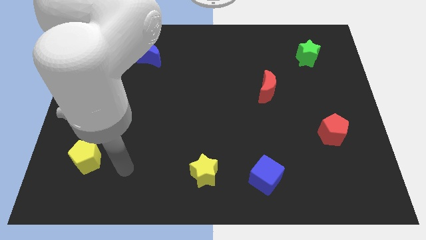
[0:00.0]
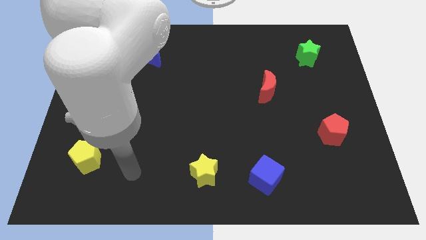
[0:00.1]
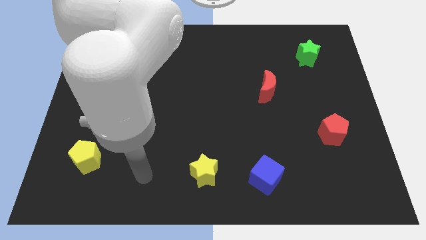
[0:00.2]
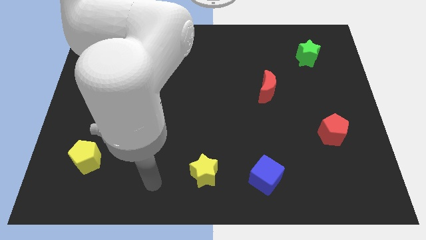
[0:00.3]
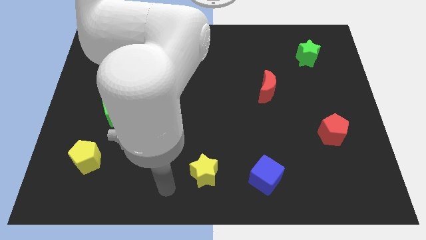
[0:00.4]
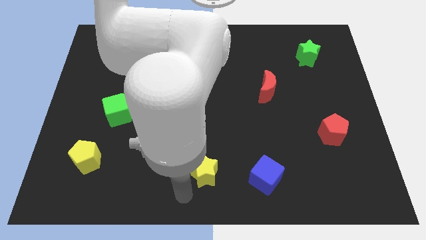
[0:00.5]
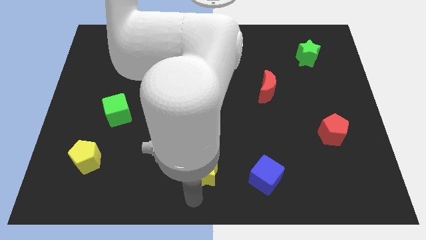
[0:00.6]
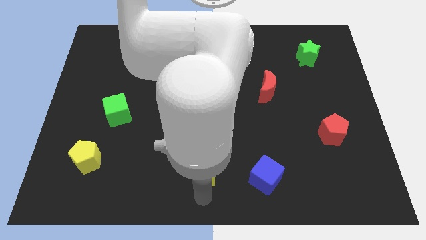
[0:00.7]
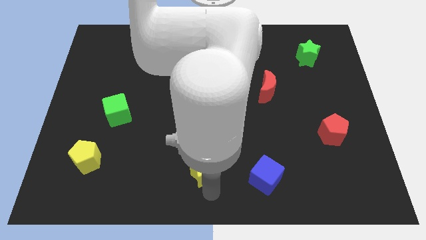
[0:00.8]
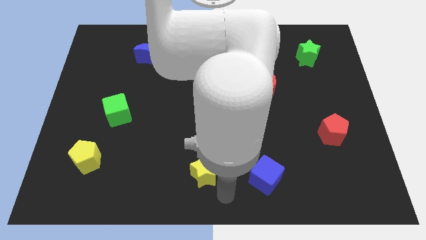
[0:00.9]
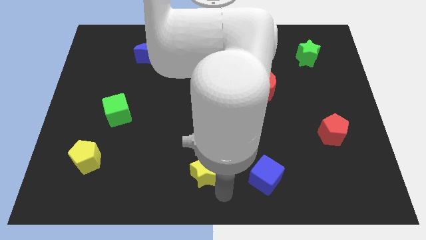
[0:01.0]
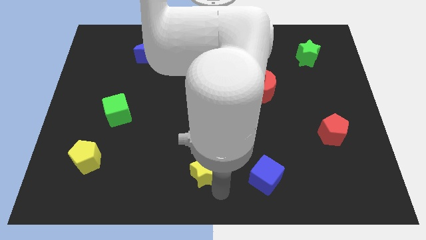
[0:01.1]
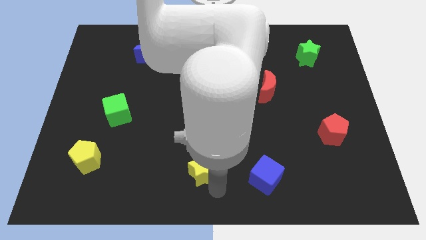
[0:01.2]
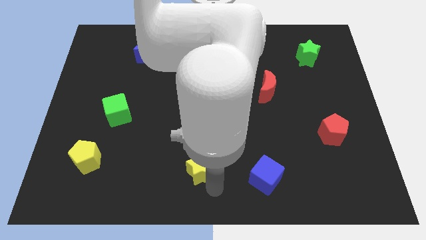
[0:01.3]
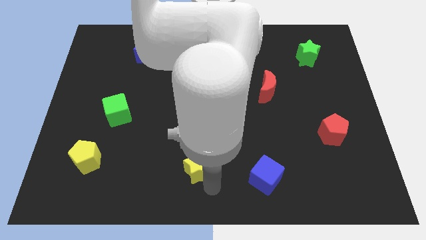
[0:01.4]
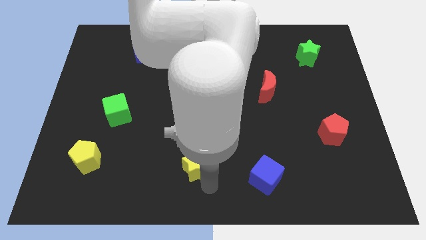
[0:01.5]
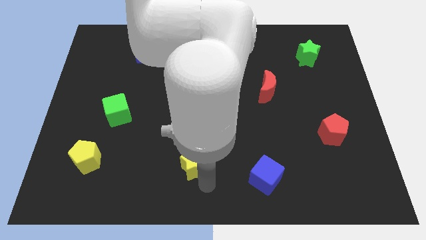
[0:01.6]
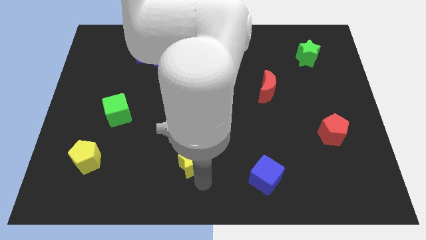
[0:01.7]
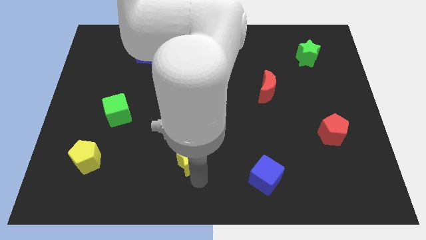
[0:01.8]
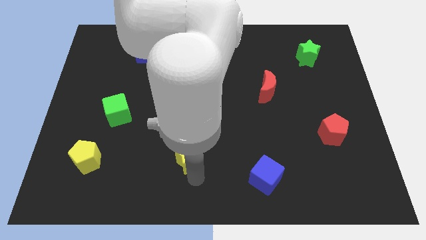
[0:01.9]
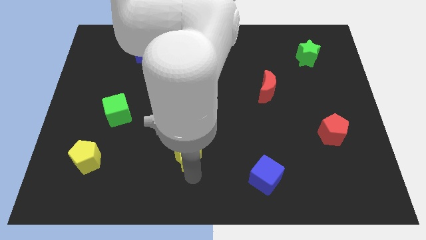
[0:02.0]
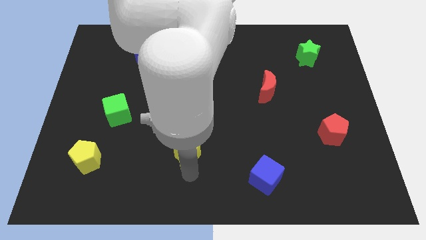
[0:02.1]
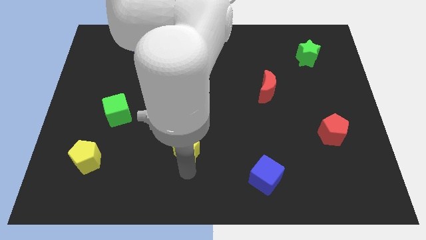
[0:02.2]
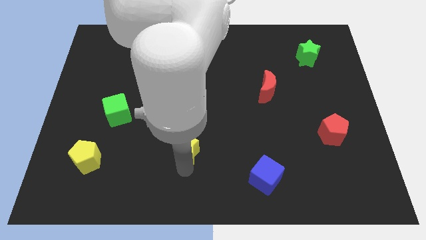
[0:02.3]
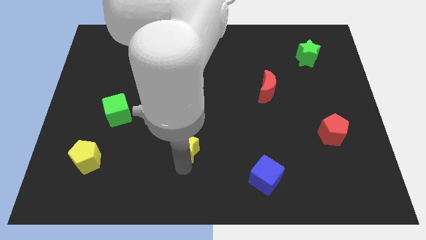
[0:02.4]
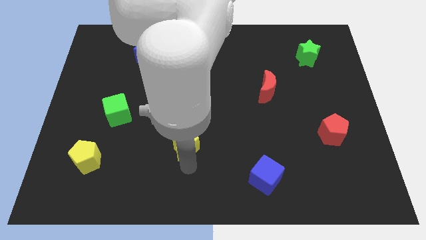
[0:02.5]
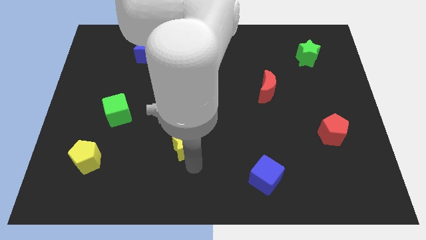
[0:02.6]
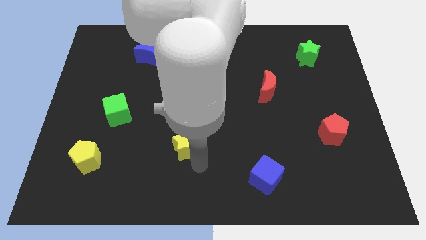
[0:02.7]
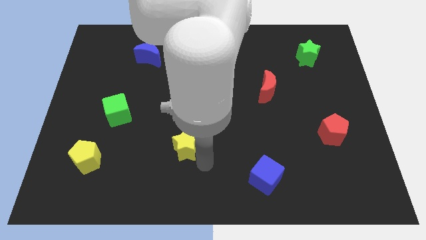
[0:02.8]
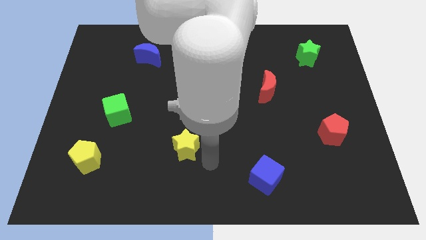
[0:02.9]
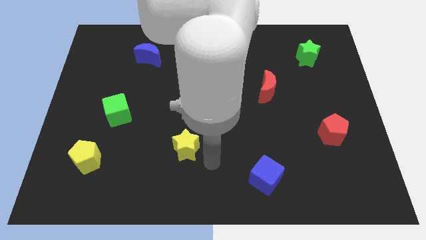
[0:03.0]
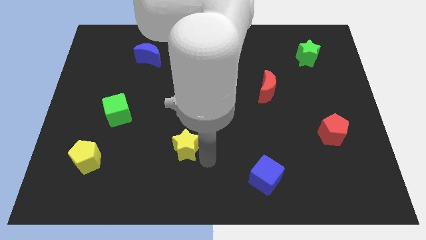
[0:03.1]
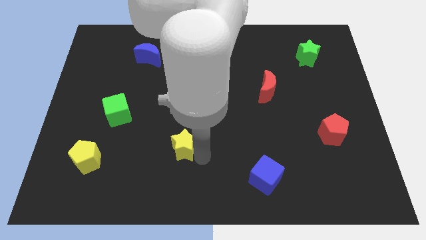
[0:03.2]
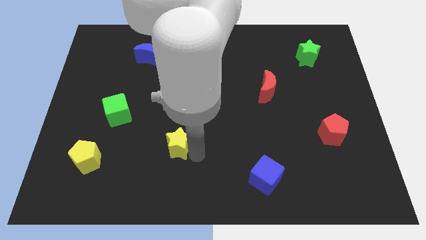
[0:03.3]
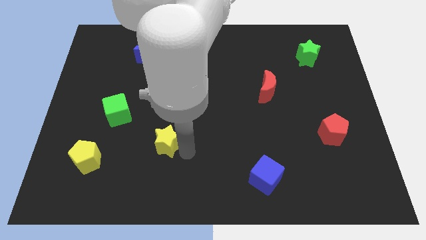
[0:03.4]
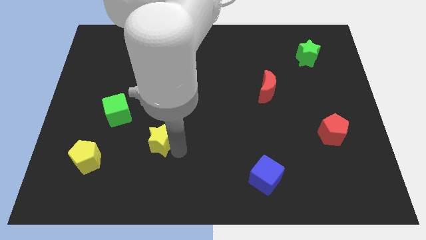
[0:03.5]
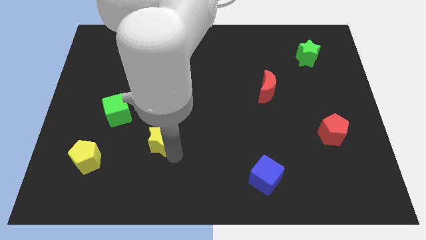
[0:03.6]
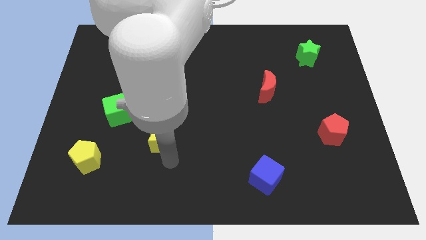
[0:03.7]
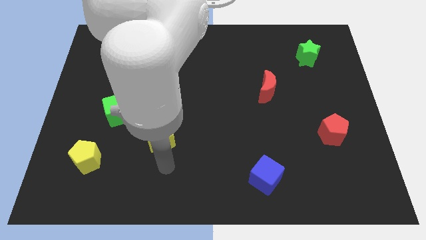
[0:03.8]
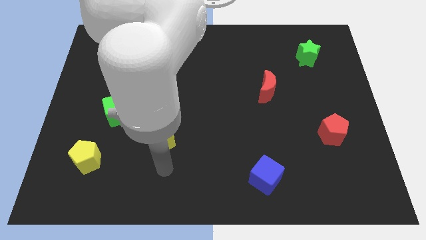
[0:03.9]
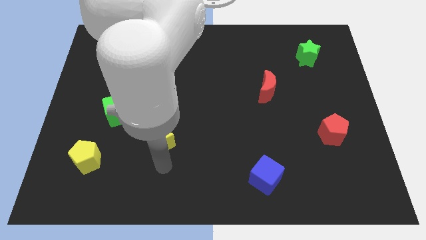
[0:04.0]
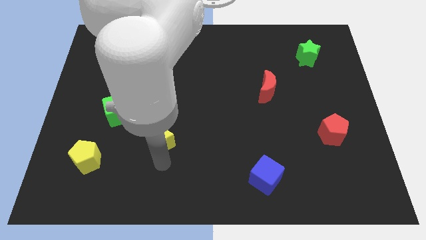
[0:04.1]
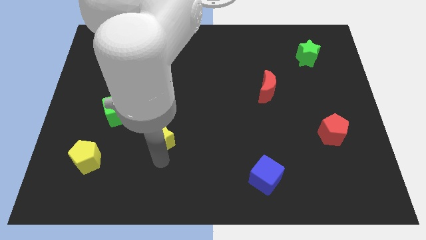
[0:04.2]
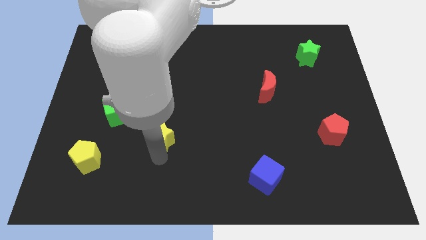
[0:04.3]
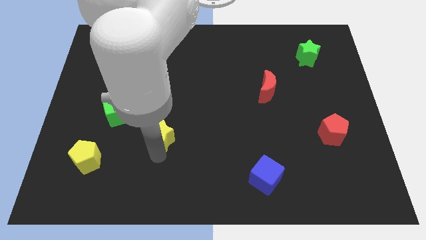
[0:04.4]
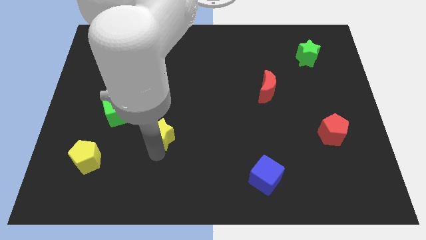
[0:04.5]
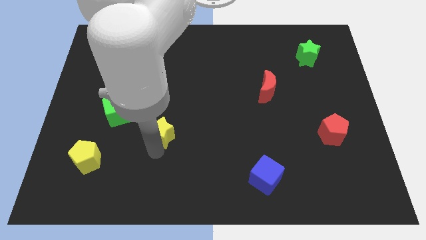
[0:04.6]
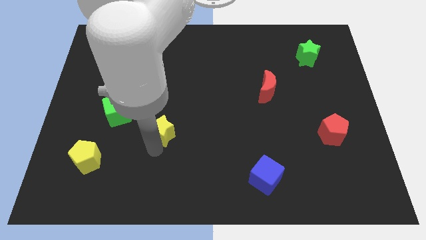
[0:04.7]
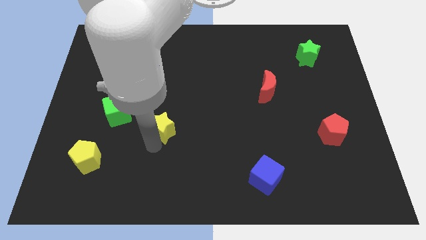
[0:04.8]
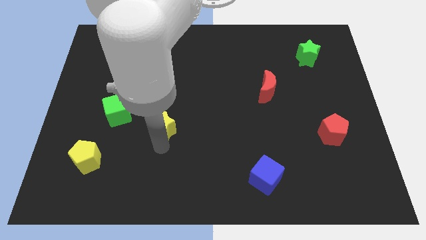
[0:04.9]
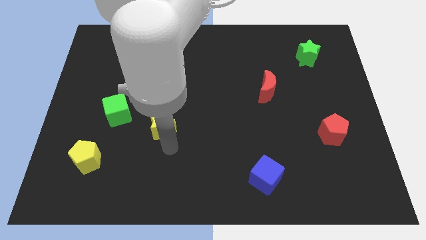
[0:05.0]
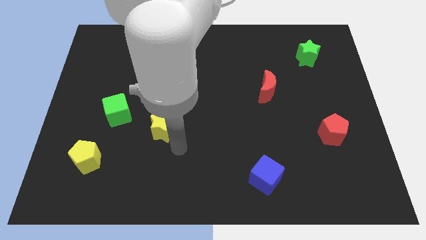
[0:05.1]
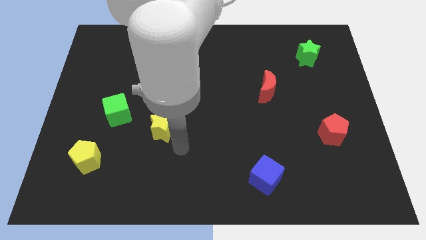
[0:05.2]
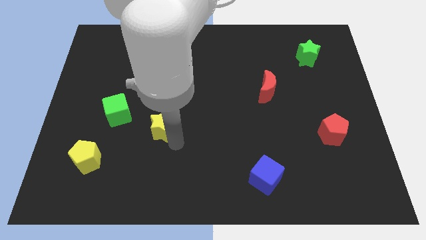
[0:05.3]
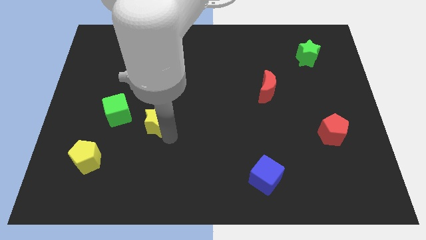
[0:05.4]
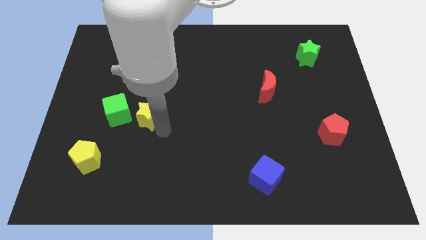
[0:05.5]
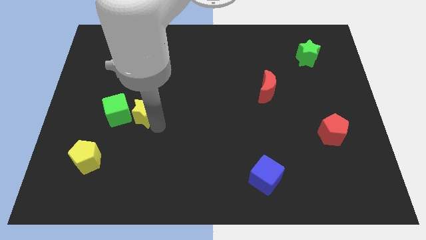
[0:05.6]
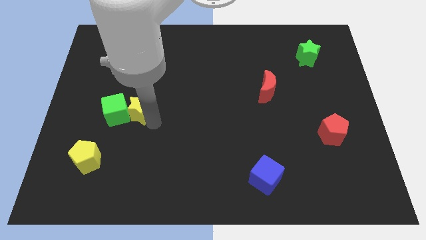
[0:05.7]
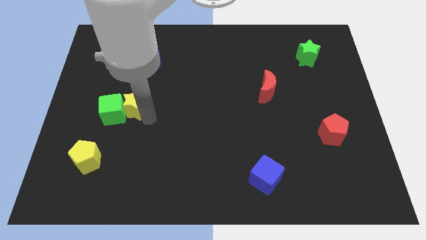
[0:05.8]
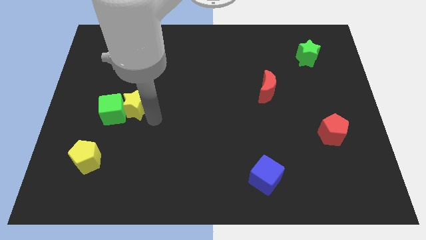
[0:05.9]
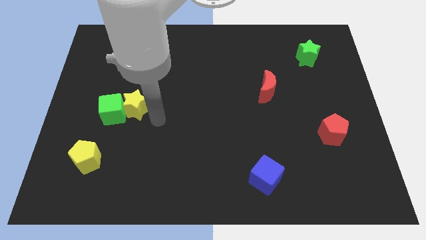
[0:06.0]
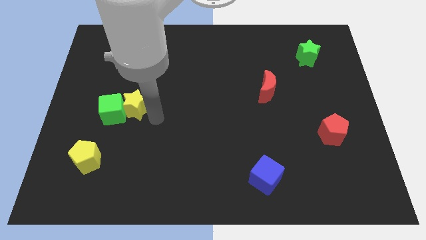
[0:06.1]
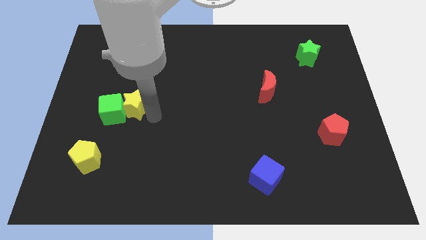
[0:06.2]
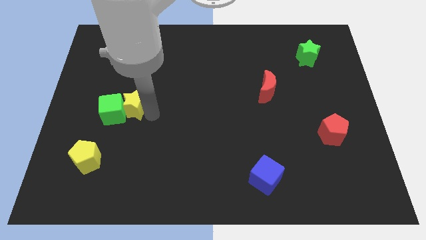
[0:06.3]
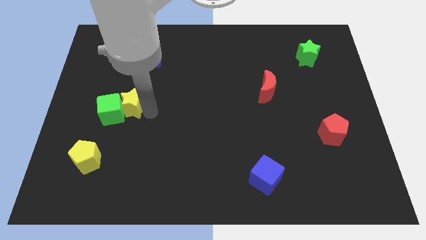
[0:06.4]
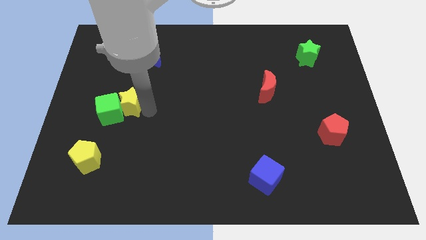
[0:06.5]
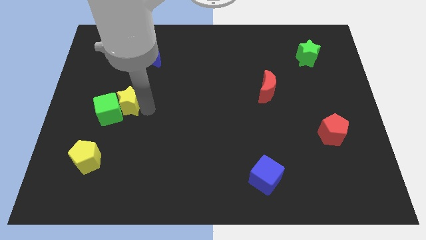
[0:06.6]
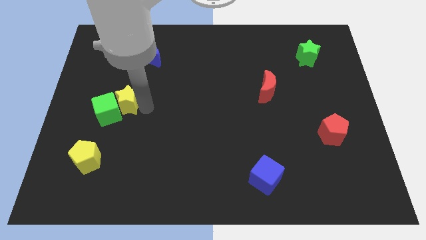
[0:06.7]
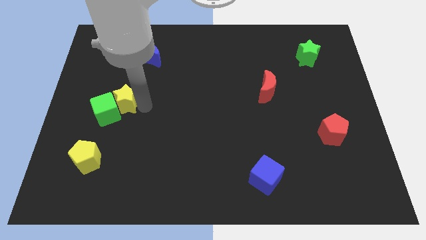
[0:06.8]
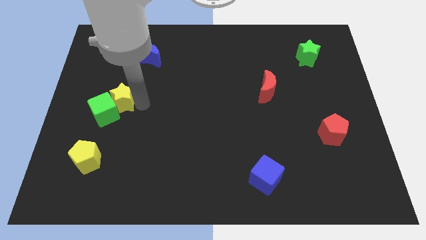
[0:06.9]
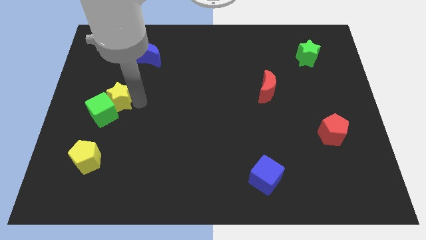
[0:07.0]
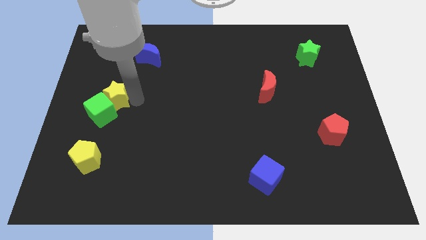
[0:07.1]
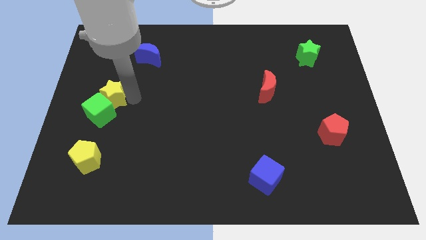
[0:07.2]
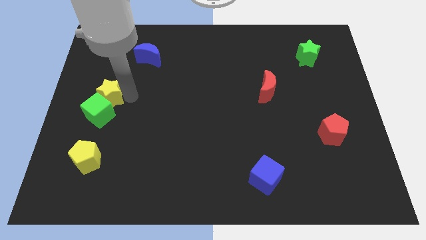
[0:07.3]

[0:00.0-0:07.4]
move the yellow star to the top left of the green cube

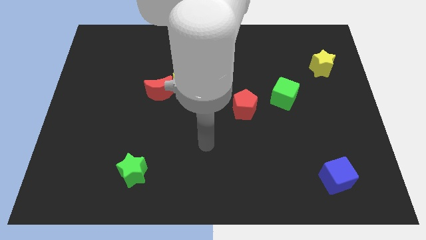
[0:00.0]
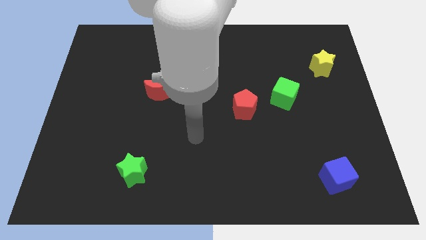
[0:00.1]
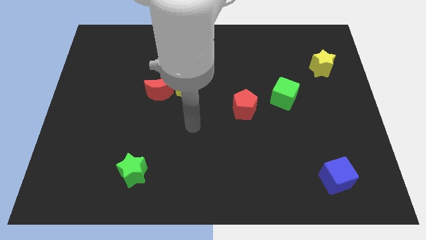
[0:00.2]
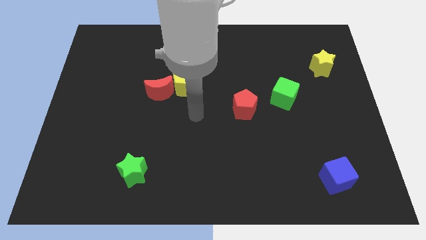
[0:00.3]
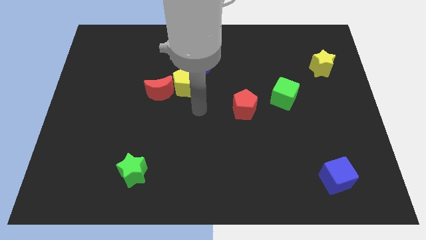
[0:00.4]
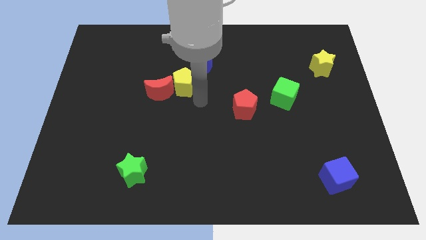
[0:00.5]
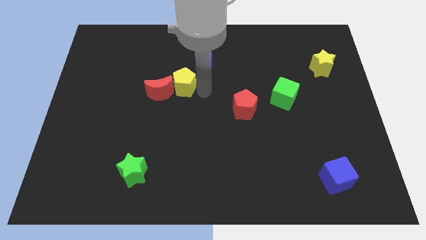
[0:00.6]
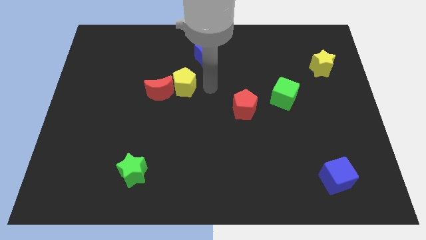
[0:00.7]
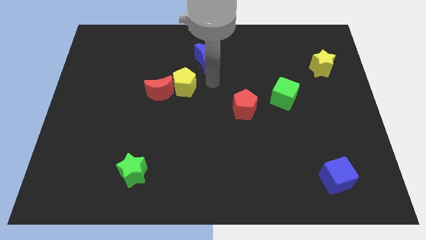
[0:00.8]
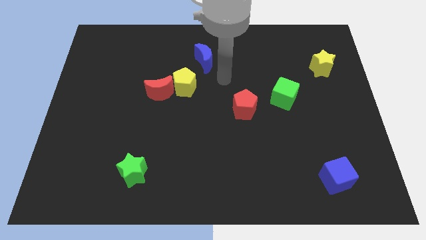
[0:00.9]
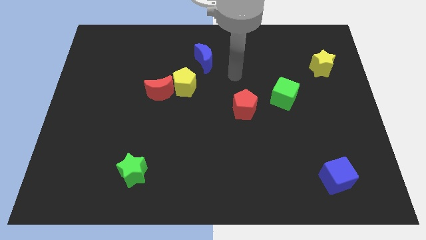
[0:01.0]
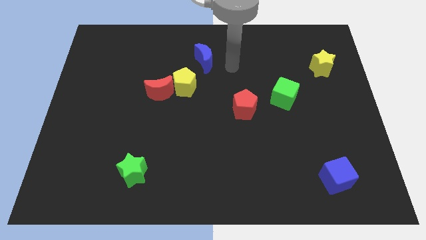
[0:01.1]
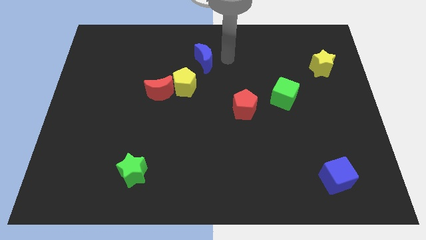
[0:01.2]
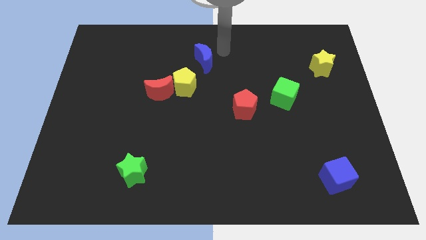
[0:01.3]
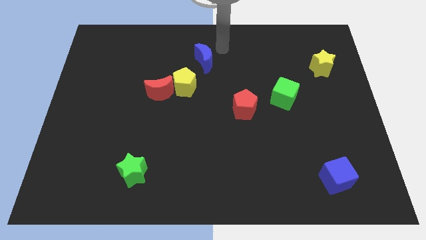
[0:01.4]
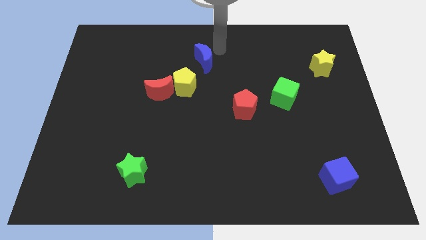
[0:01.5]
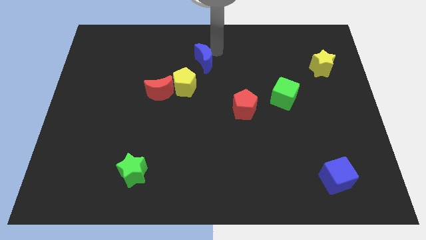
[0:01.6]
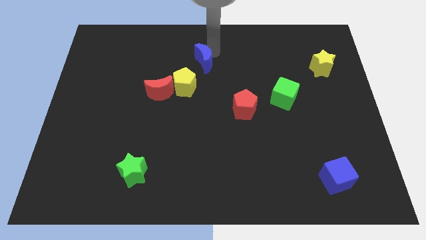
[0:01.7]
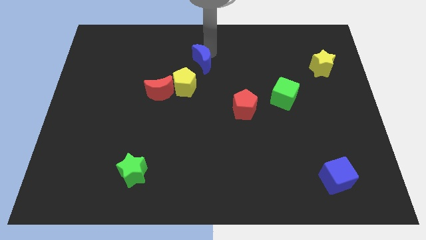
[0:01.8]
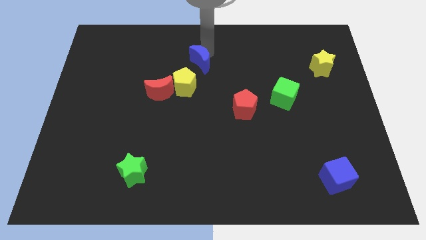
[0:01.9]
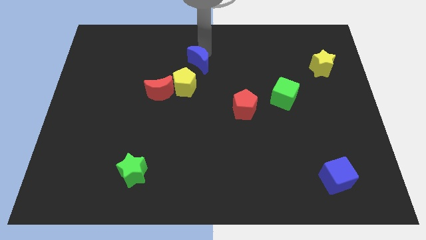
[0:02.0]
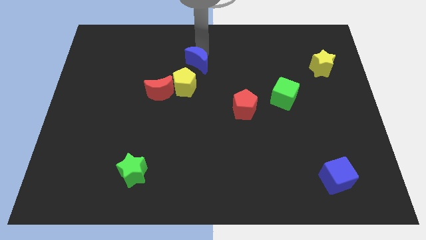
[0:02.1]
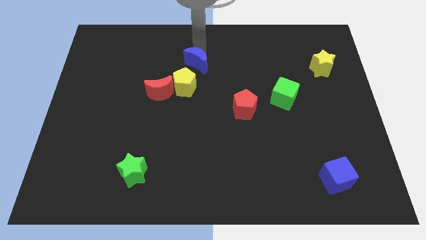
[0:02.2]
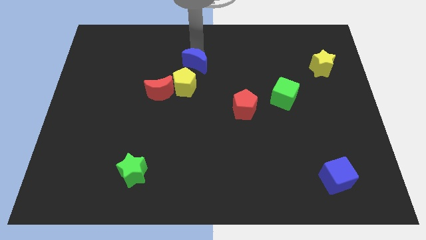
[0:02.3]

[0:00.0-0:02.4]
put the blue moon diagonally up and to the right of the red moon
